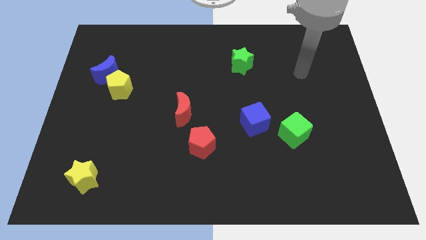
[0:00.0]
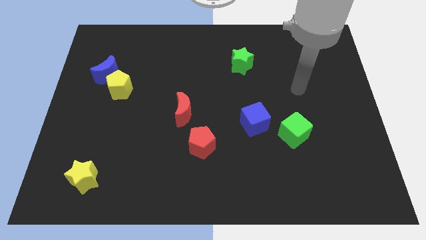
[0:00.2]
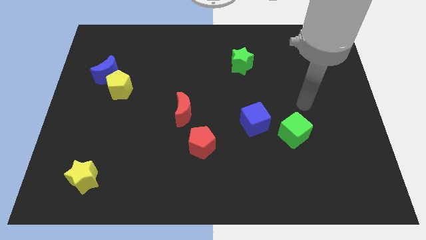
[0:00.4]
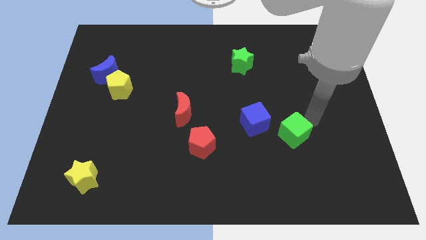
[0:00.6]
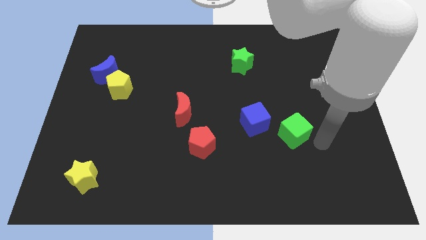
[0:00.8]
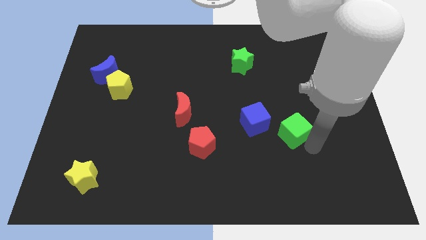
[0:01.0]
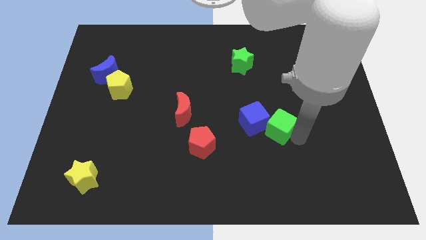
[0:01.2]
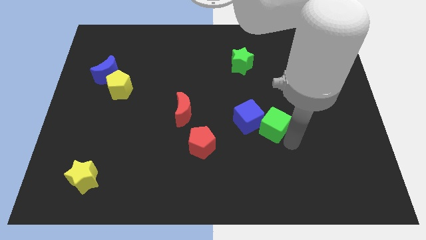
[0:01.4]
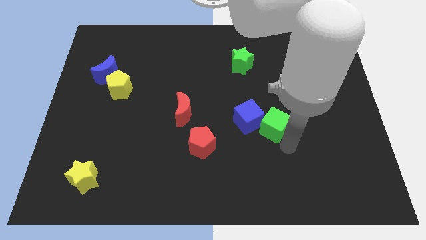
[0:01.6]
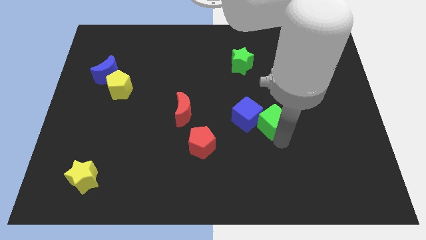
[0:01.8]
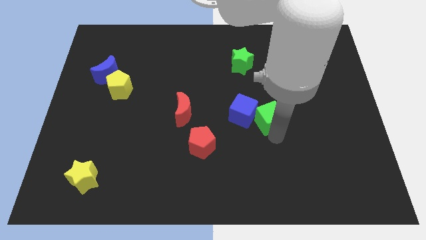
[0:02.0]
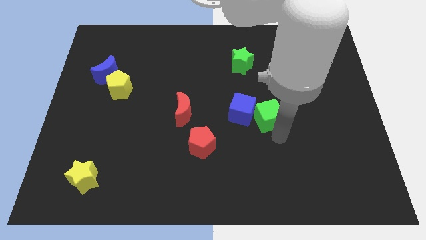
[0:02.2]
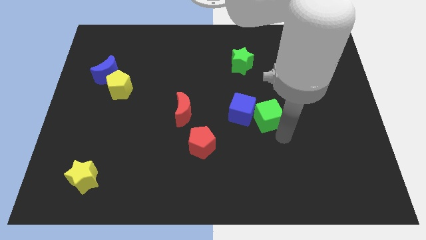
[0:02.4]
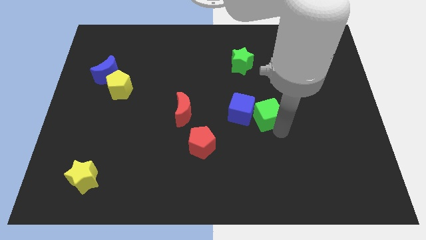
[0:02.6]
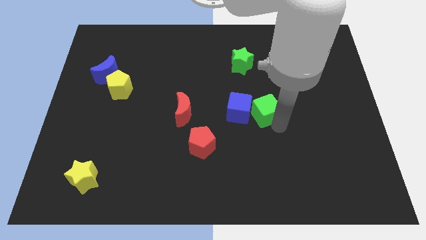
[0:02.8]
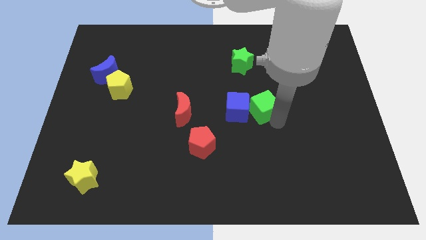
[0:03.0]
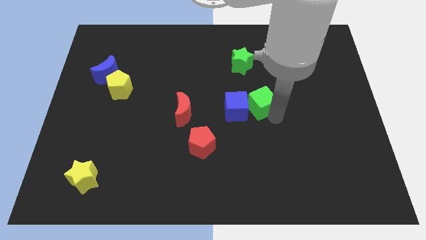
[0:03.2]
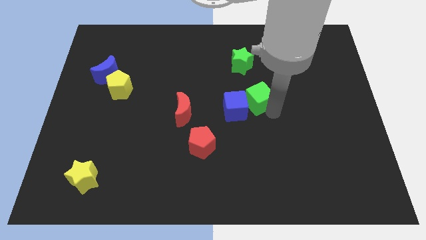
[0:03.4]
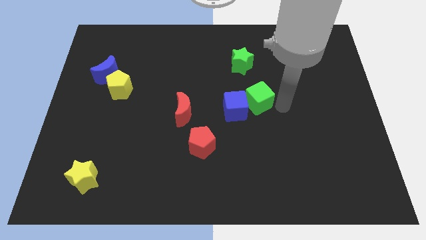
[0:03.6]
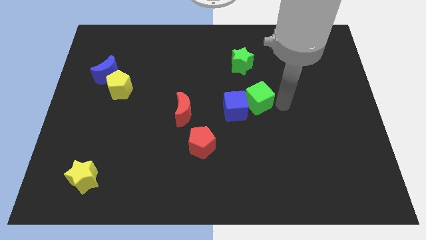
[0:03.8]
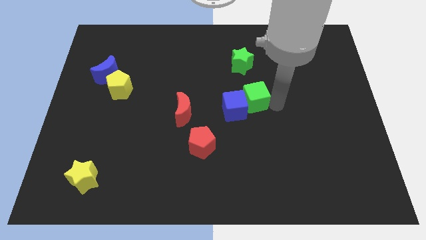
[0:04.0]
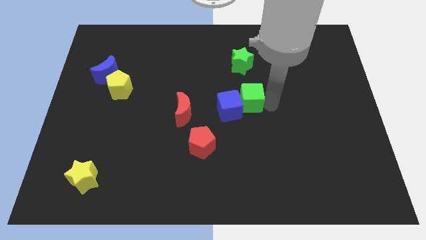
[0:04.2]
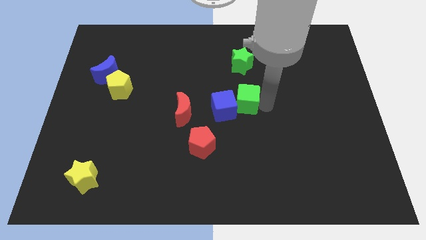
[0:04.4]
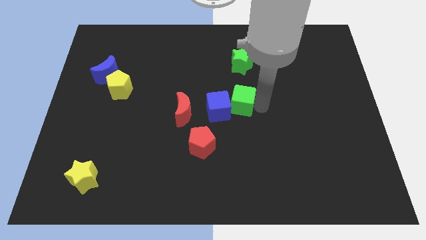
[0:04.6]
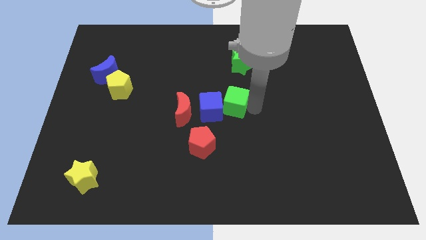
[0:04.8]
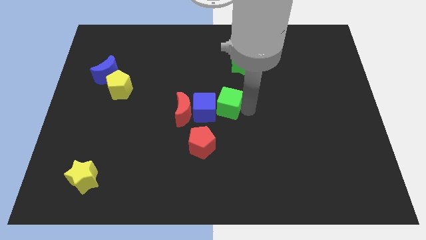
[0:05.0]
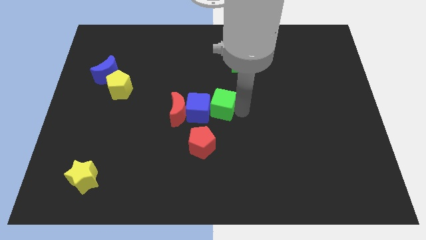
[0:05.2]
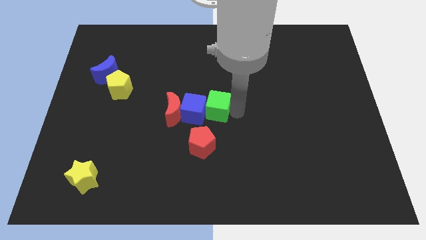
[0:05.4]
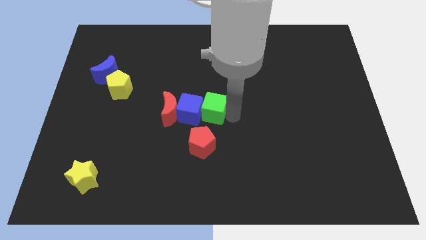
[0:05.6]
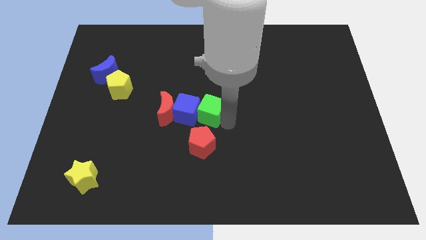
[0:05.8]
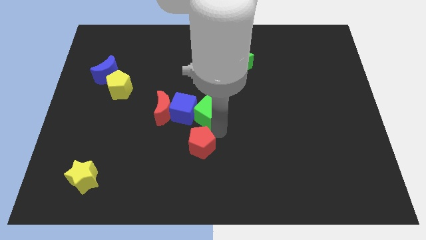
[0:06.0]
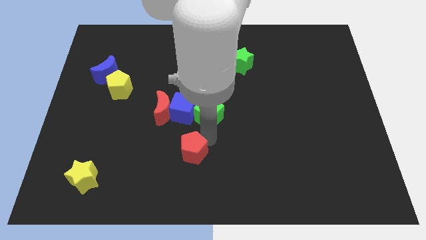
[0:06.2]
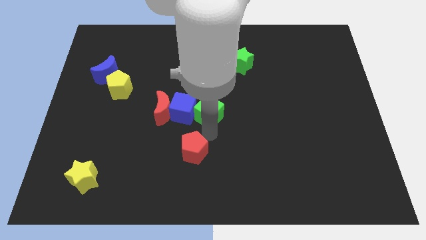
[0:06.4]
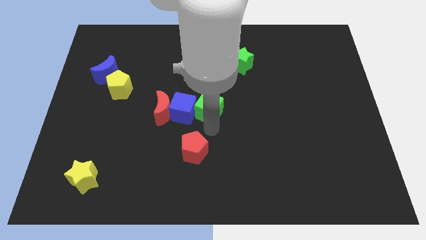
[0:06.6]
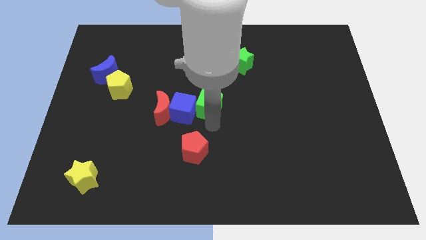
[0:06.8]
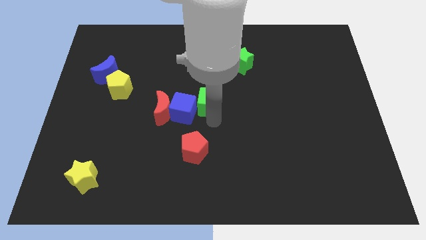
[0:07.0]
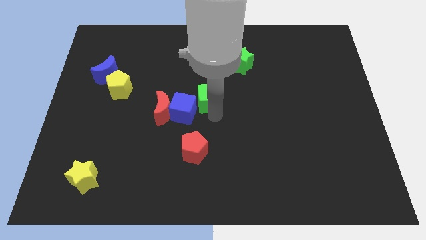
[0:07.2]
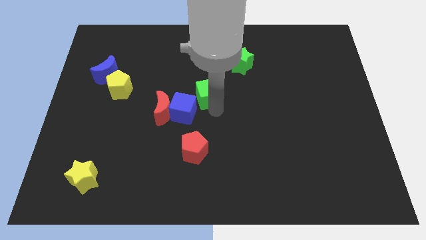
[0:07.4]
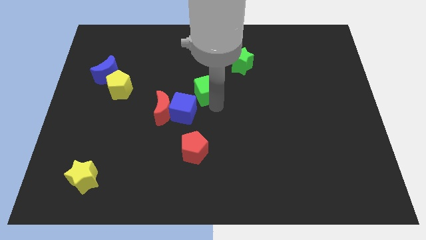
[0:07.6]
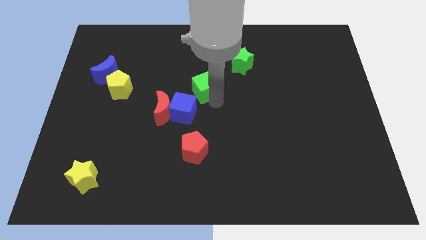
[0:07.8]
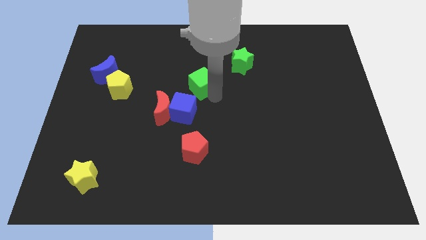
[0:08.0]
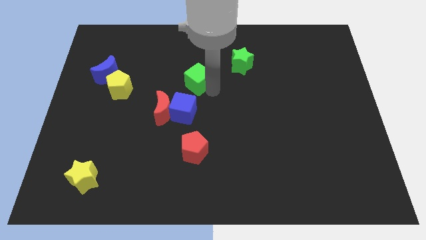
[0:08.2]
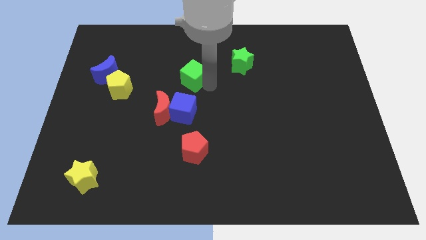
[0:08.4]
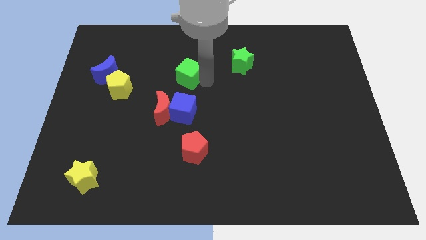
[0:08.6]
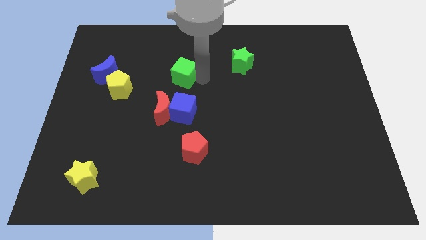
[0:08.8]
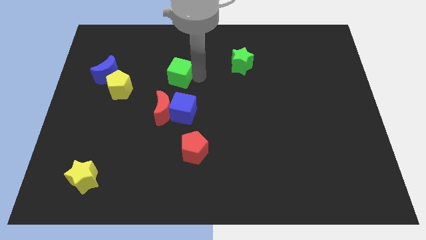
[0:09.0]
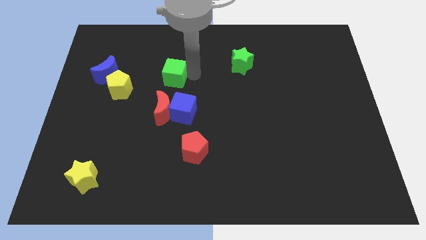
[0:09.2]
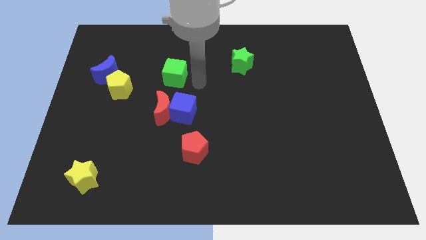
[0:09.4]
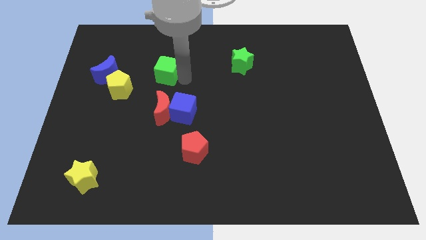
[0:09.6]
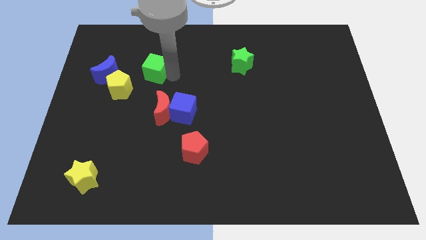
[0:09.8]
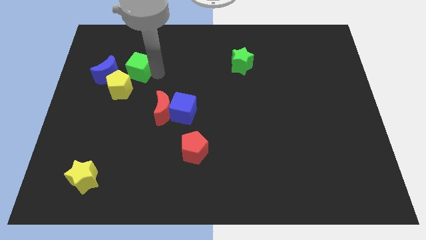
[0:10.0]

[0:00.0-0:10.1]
push the green cube above the yellow pentagon

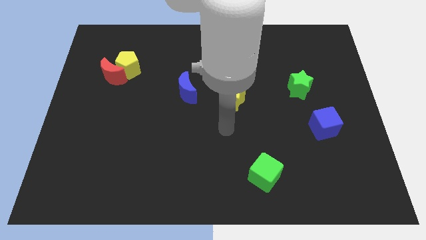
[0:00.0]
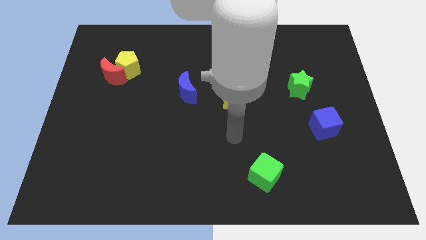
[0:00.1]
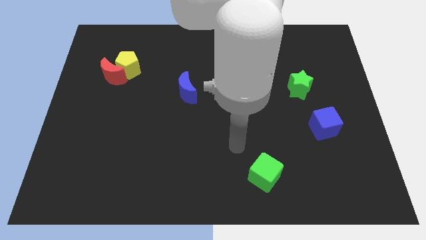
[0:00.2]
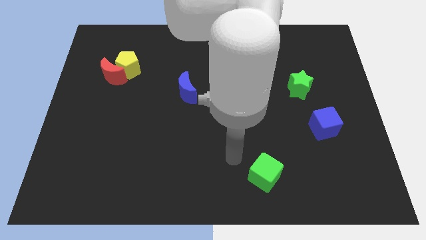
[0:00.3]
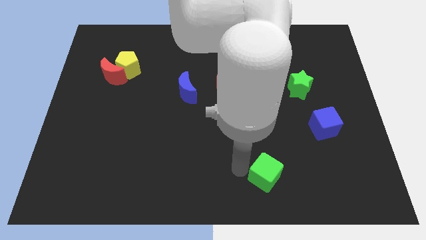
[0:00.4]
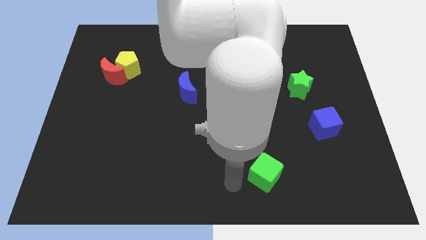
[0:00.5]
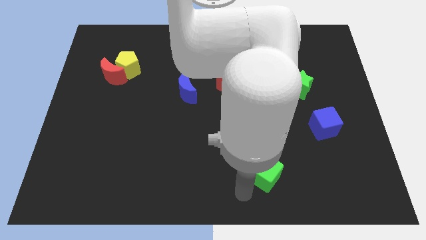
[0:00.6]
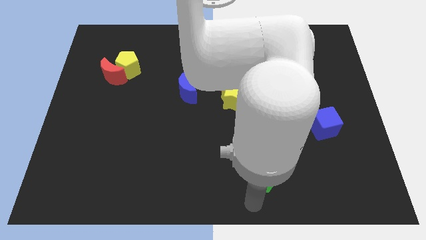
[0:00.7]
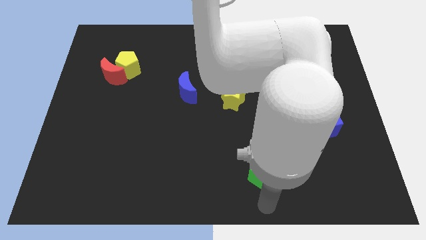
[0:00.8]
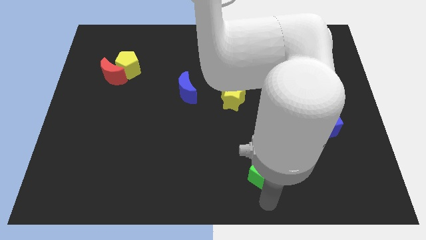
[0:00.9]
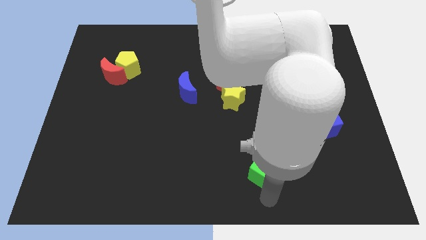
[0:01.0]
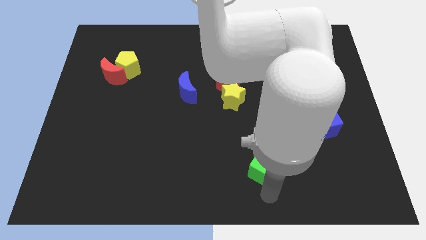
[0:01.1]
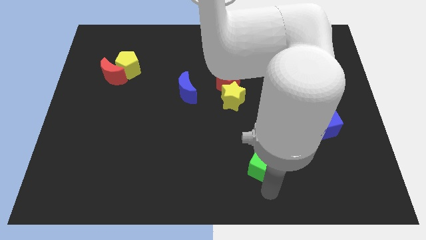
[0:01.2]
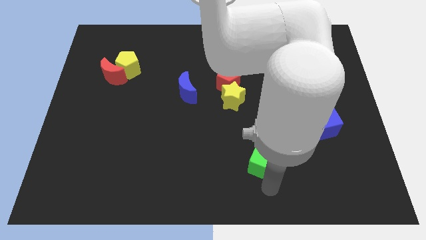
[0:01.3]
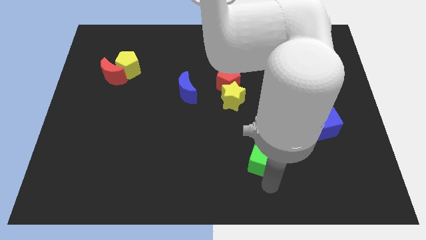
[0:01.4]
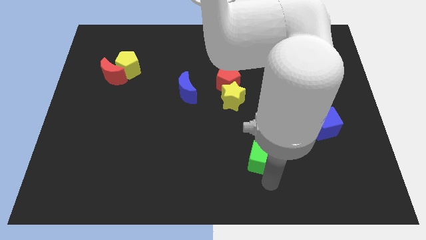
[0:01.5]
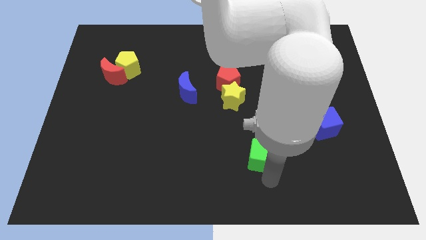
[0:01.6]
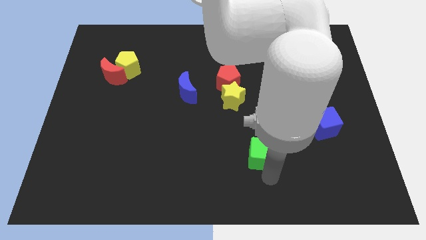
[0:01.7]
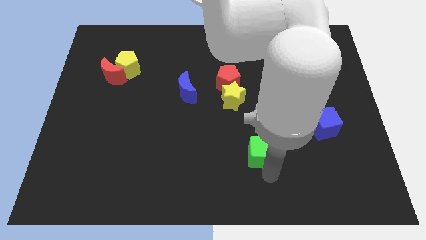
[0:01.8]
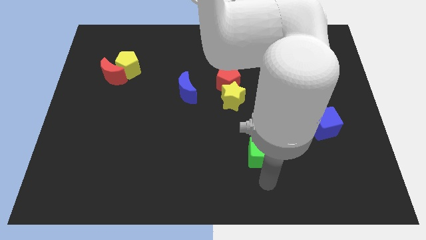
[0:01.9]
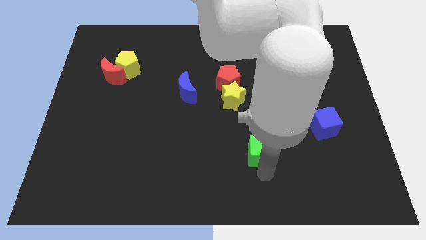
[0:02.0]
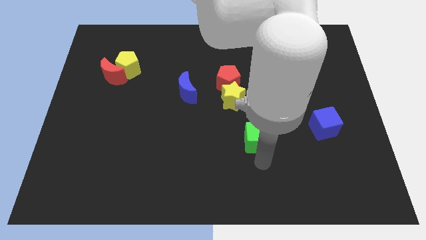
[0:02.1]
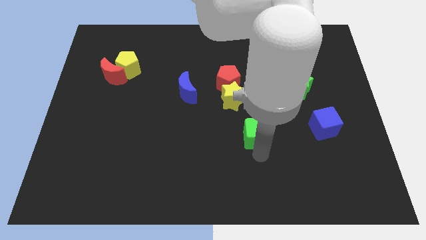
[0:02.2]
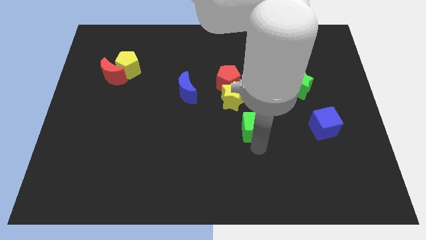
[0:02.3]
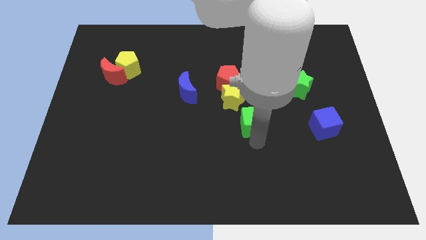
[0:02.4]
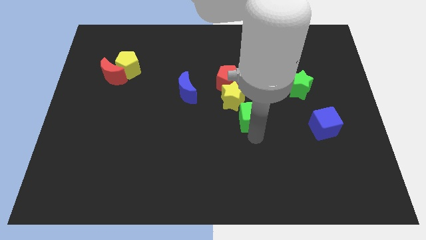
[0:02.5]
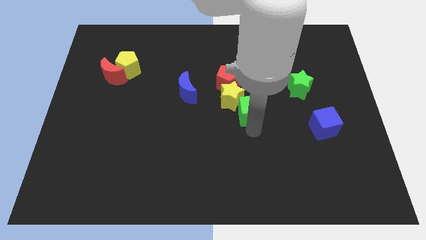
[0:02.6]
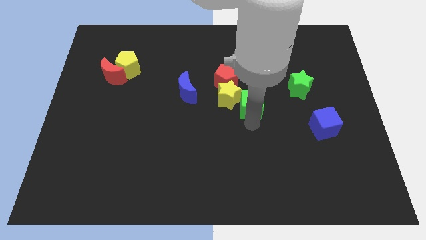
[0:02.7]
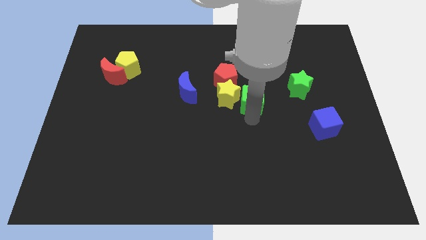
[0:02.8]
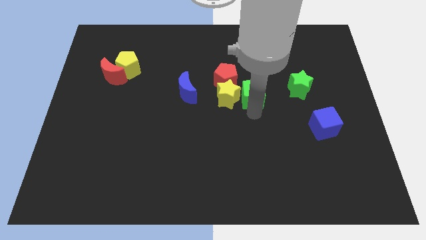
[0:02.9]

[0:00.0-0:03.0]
put the green cube to the right side of the blue moon

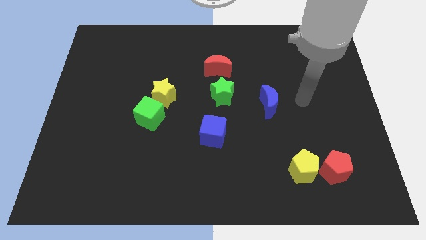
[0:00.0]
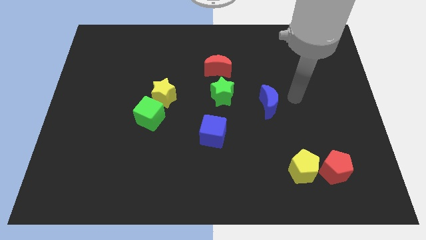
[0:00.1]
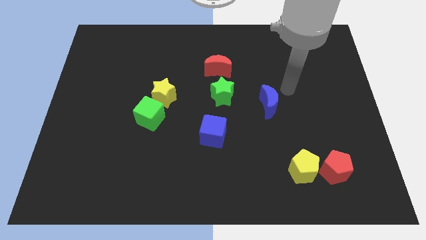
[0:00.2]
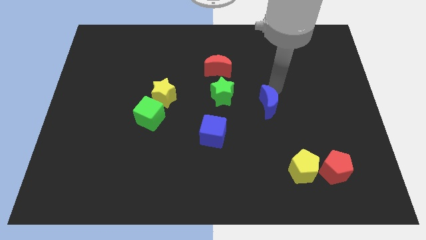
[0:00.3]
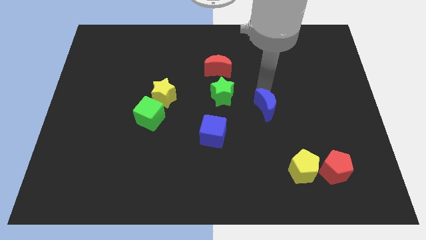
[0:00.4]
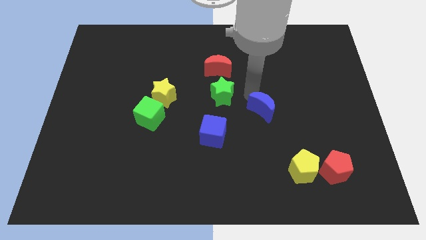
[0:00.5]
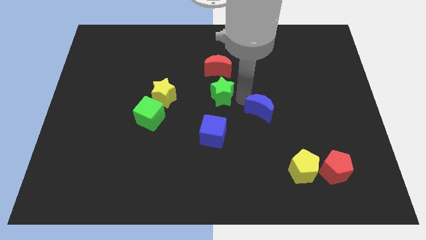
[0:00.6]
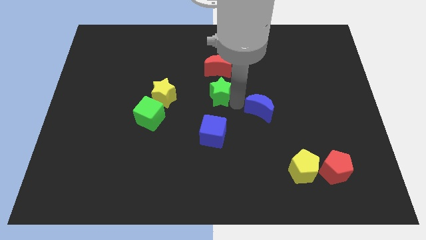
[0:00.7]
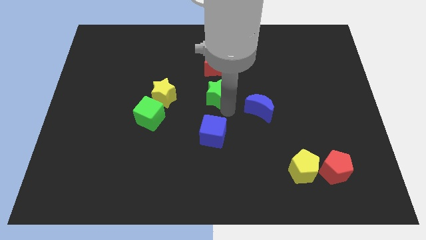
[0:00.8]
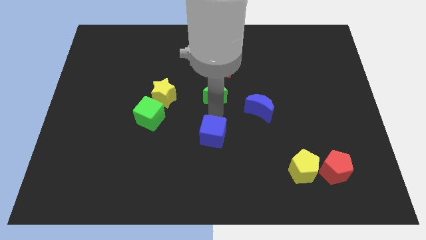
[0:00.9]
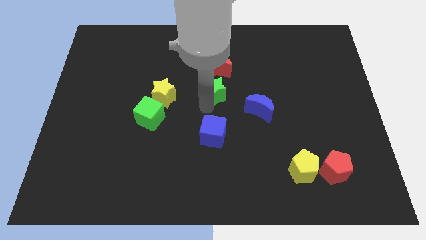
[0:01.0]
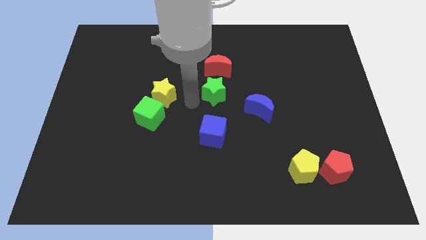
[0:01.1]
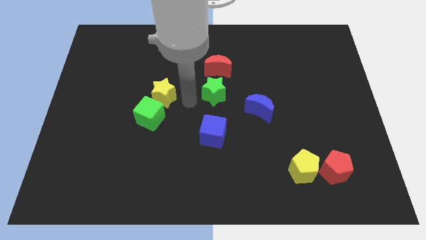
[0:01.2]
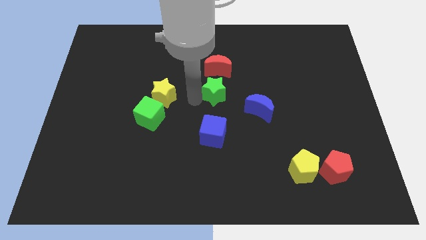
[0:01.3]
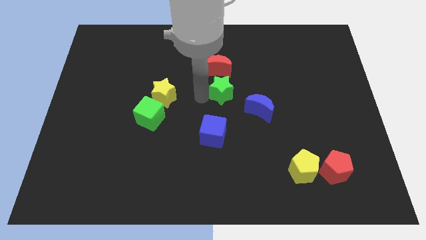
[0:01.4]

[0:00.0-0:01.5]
put the green star to the bottom right side of the red moon
